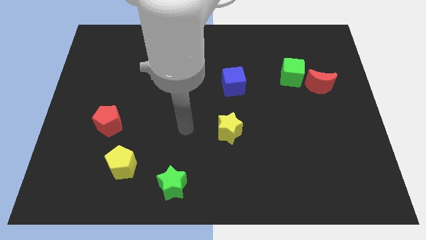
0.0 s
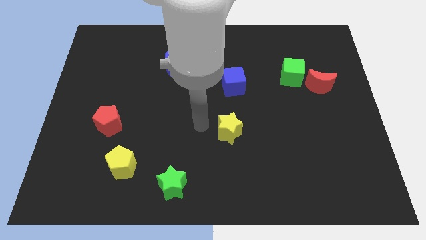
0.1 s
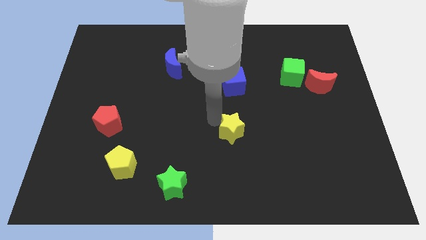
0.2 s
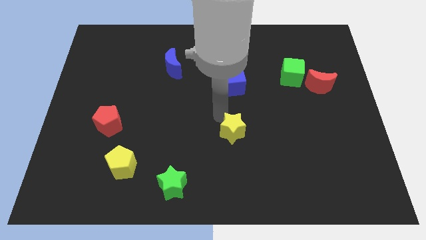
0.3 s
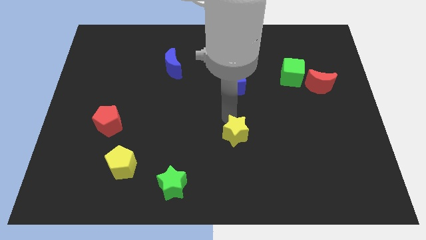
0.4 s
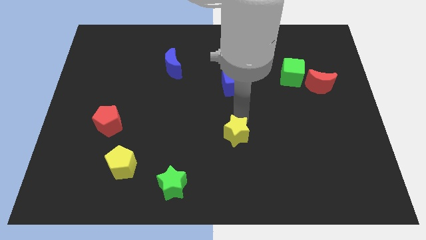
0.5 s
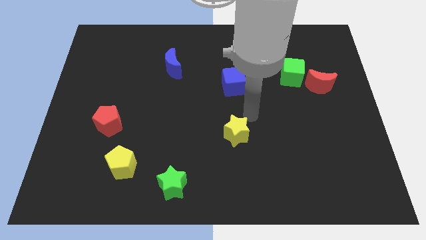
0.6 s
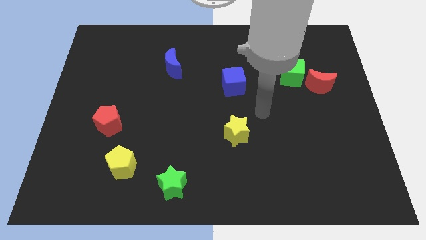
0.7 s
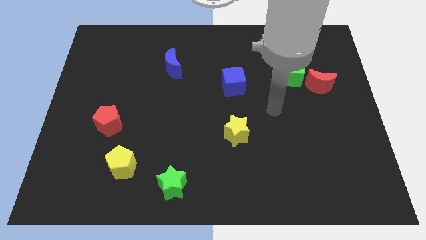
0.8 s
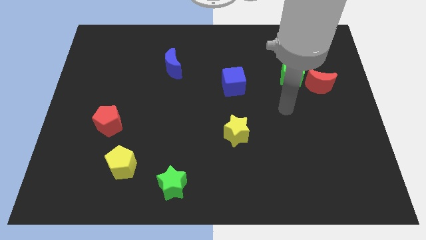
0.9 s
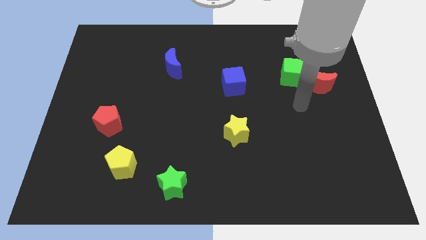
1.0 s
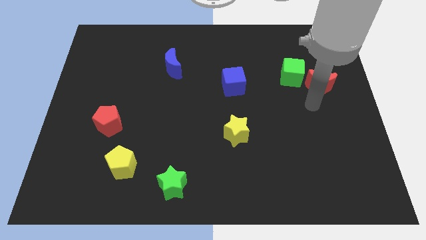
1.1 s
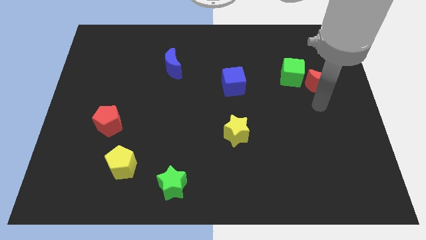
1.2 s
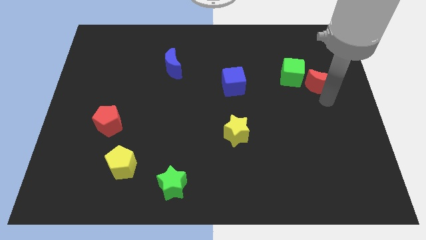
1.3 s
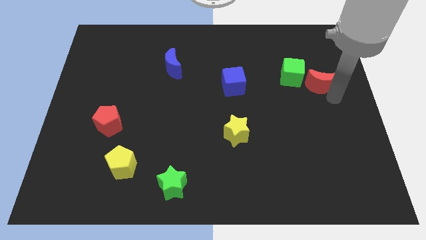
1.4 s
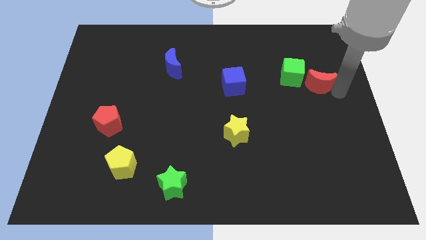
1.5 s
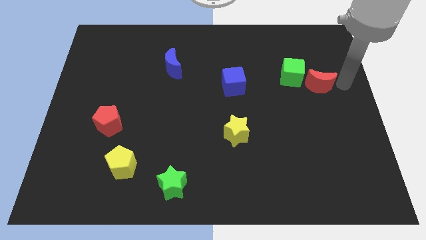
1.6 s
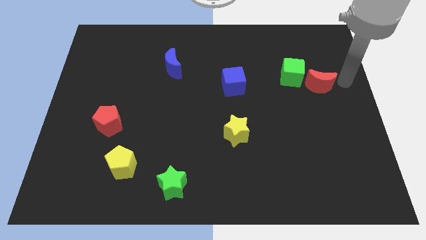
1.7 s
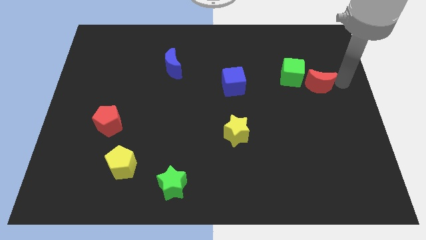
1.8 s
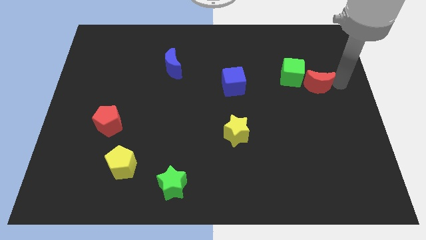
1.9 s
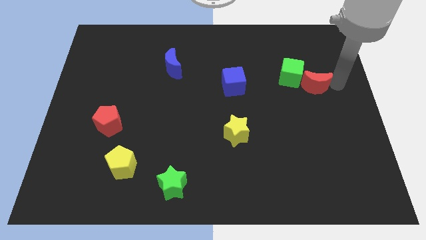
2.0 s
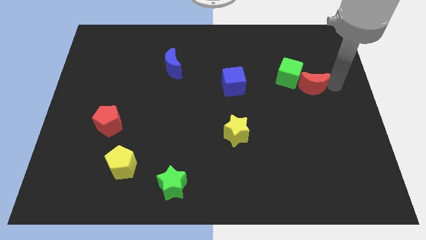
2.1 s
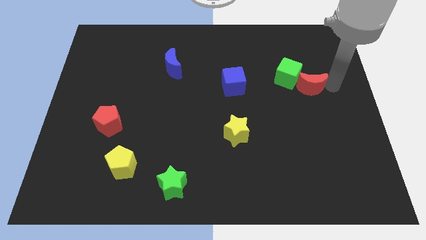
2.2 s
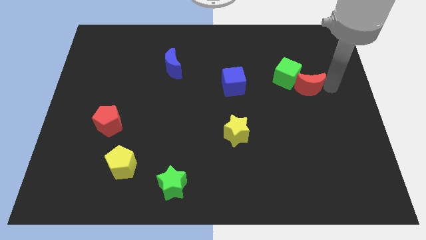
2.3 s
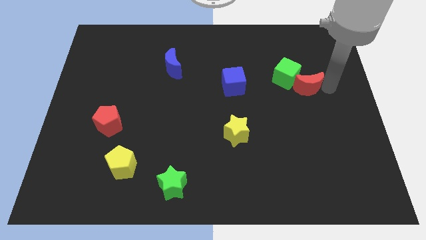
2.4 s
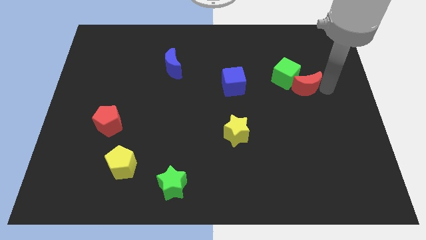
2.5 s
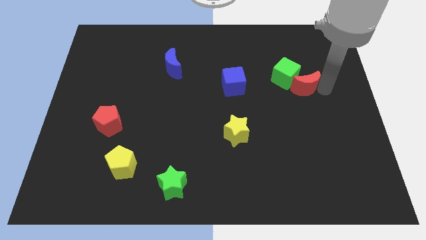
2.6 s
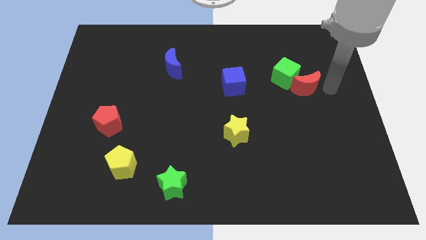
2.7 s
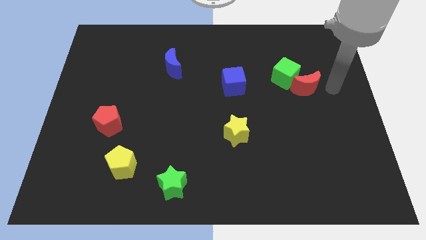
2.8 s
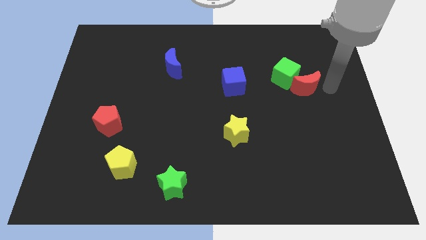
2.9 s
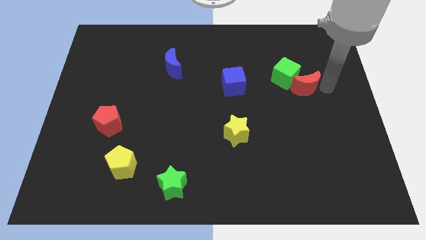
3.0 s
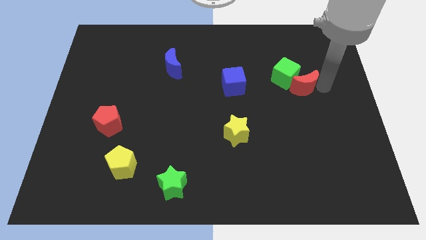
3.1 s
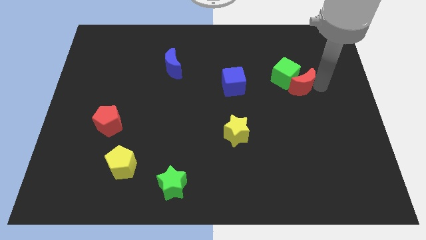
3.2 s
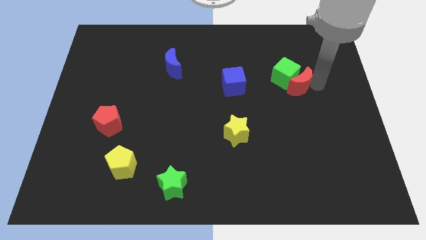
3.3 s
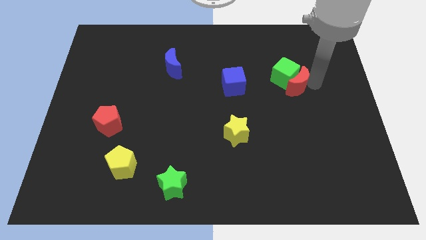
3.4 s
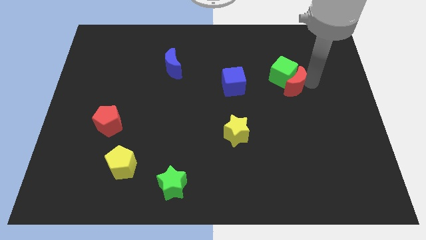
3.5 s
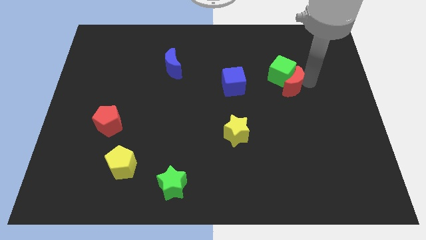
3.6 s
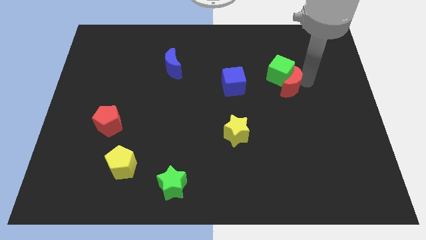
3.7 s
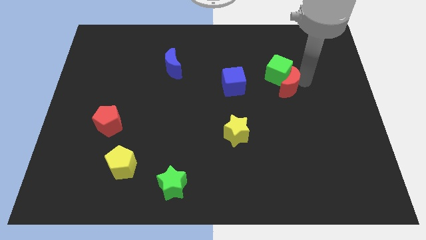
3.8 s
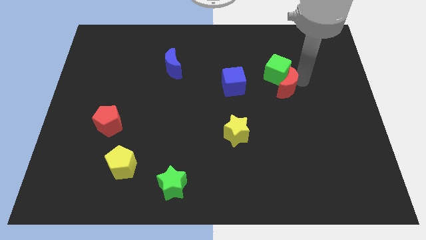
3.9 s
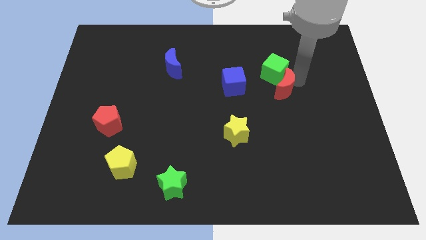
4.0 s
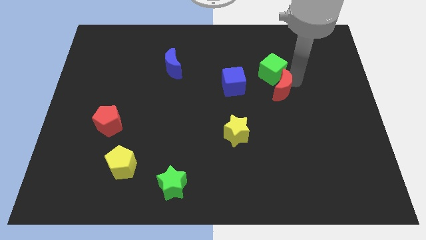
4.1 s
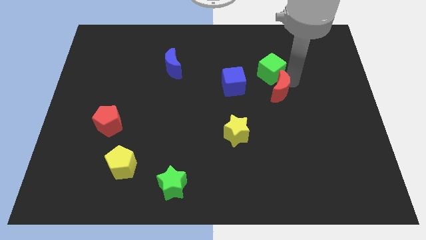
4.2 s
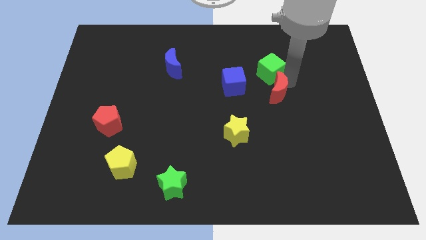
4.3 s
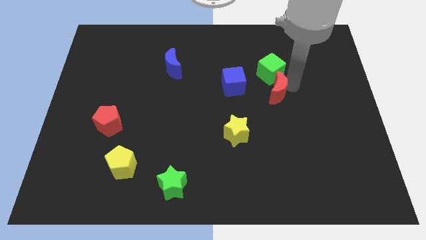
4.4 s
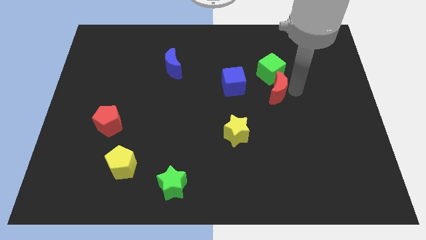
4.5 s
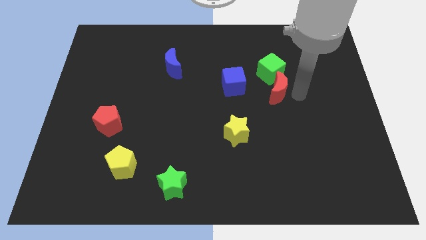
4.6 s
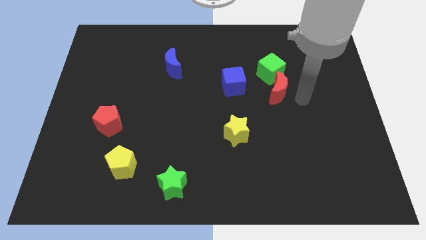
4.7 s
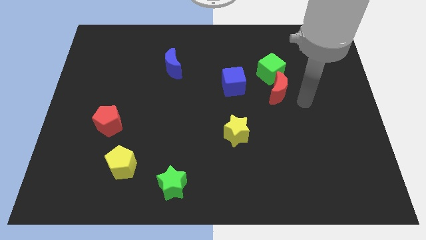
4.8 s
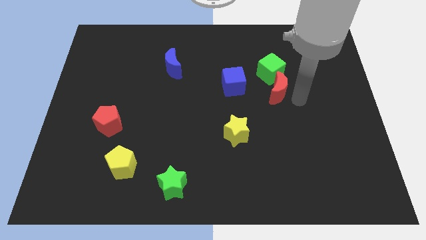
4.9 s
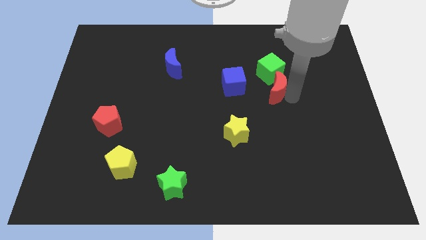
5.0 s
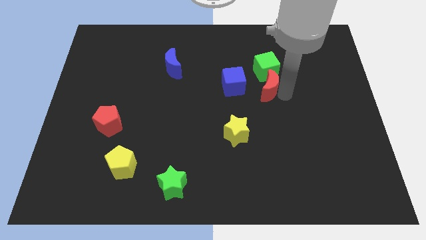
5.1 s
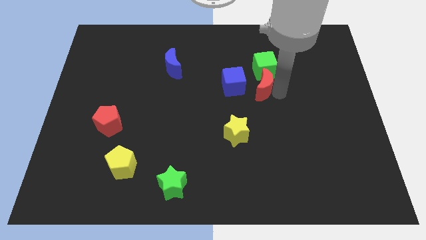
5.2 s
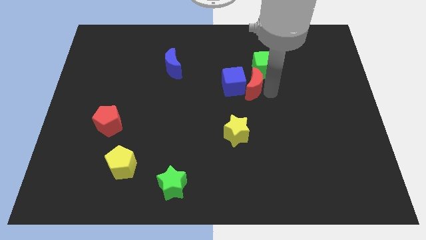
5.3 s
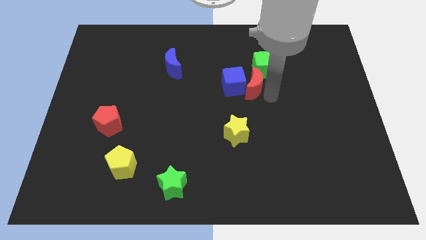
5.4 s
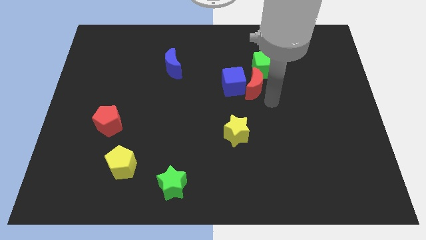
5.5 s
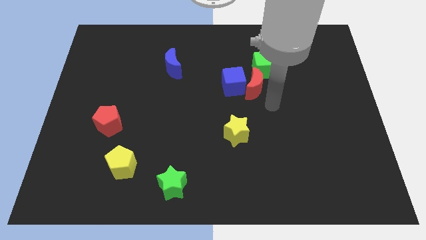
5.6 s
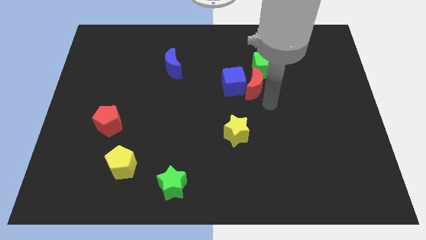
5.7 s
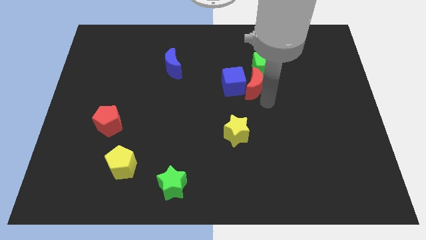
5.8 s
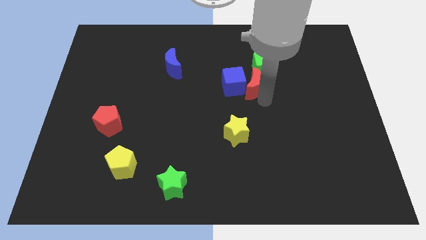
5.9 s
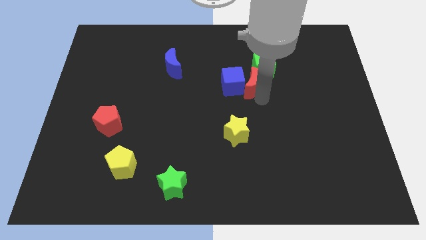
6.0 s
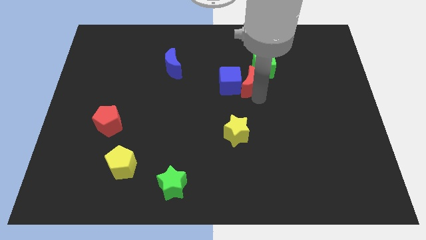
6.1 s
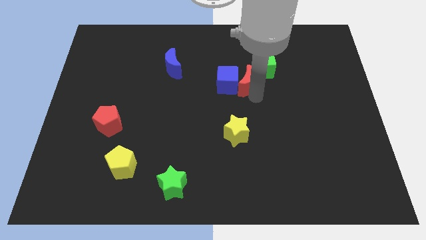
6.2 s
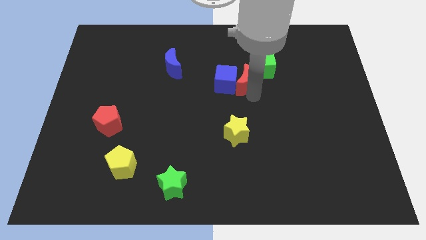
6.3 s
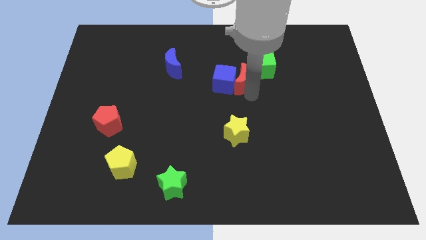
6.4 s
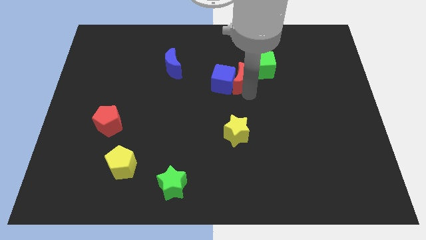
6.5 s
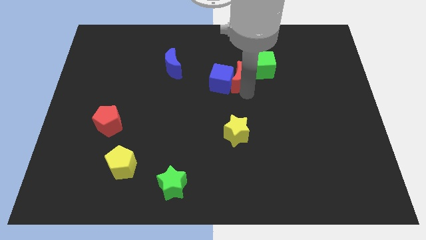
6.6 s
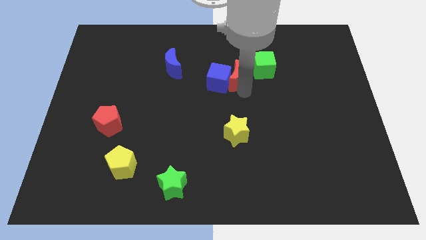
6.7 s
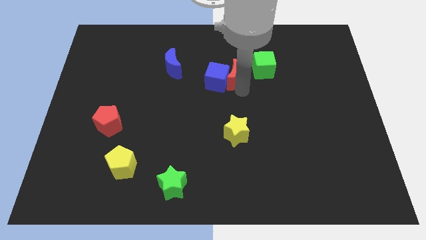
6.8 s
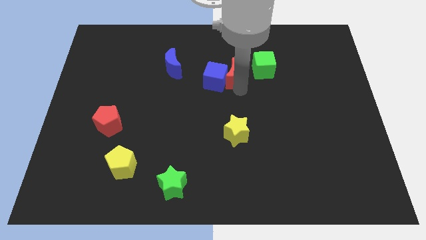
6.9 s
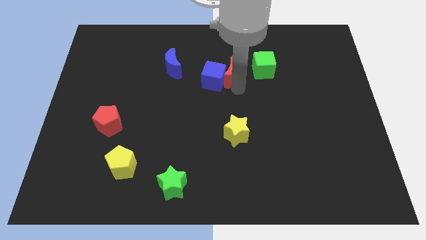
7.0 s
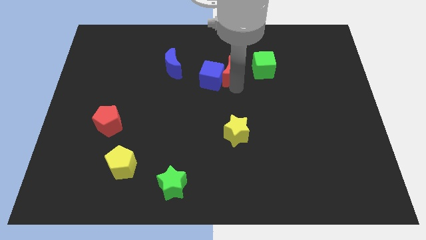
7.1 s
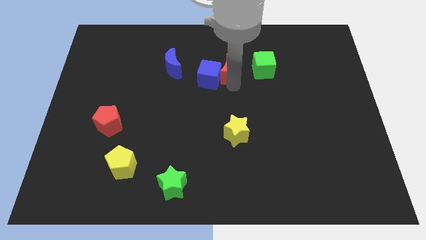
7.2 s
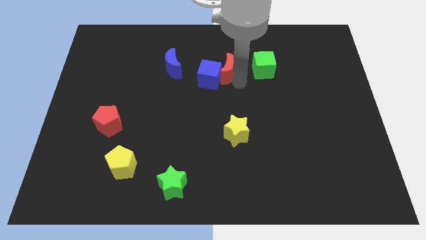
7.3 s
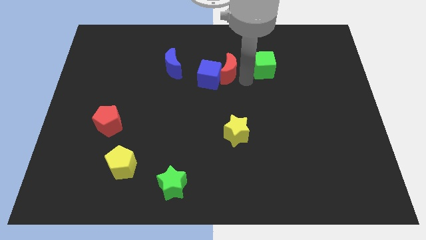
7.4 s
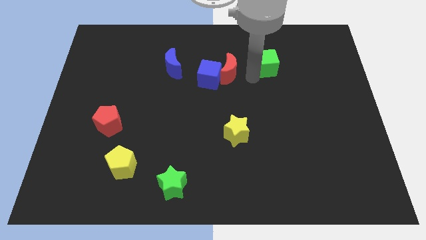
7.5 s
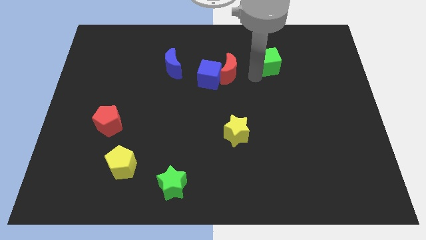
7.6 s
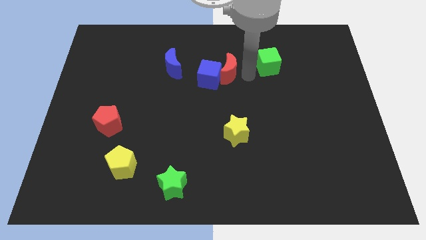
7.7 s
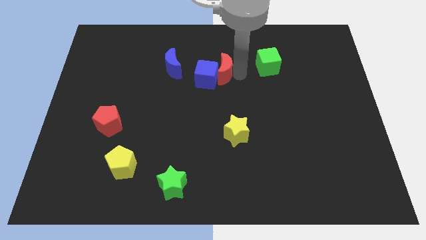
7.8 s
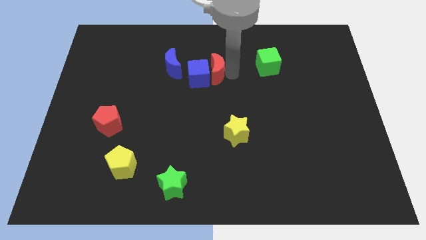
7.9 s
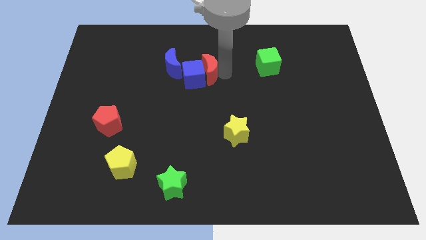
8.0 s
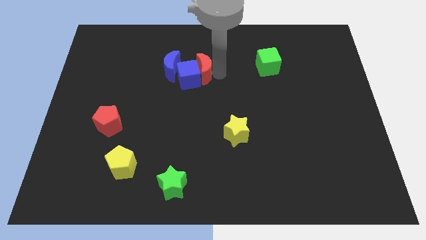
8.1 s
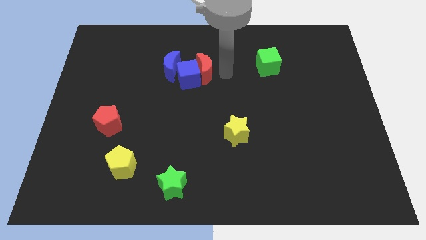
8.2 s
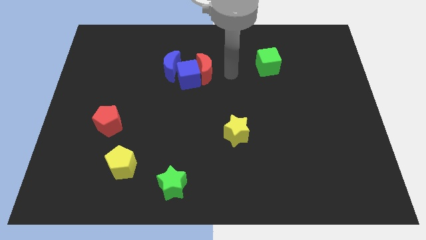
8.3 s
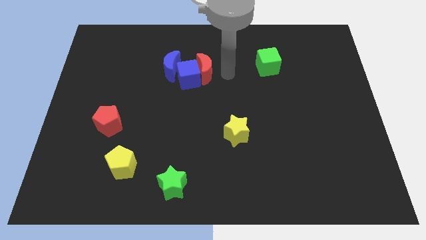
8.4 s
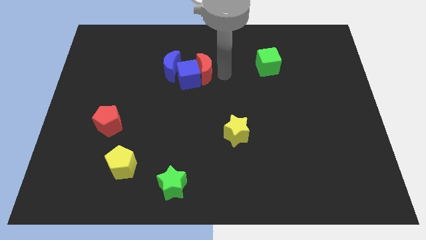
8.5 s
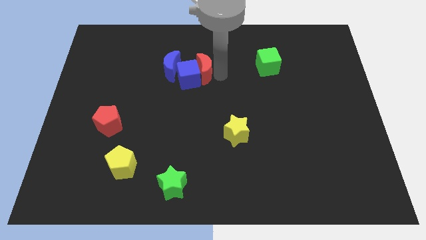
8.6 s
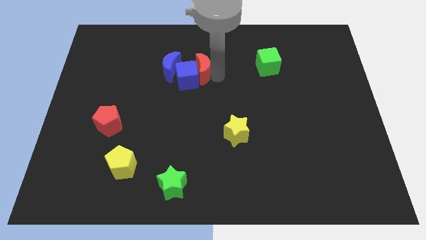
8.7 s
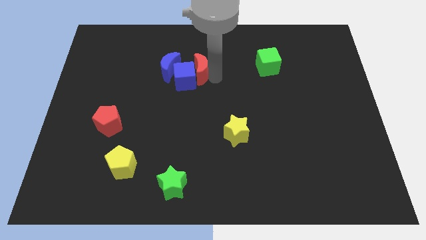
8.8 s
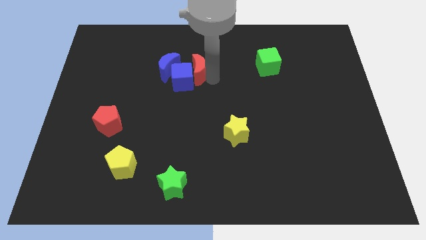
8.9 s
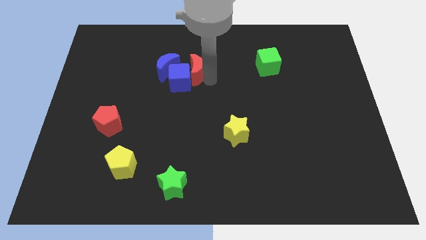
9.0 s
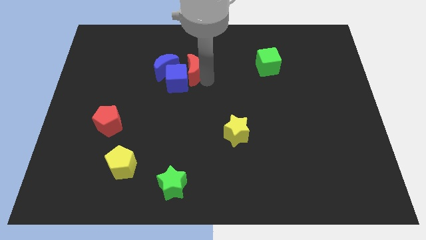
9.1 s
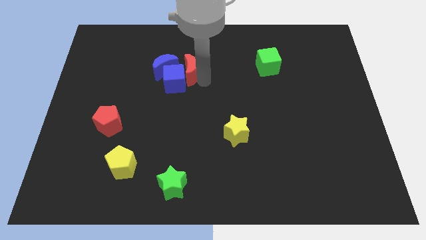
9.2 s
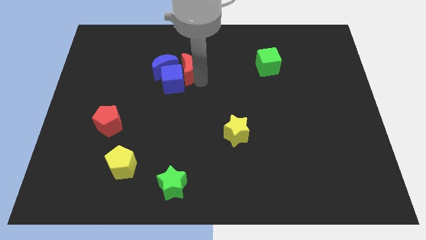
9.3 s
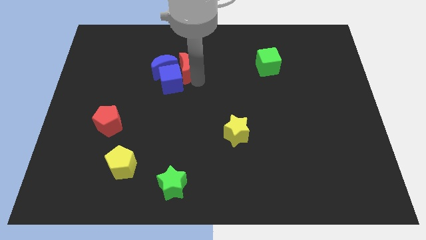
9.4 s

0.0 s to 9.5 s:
slide the red moon close to the blue moon
